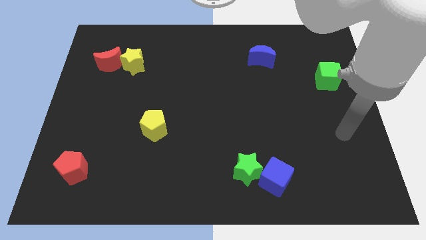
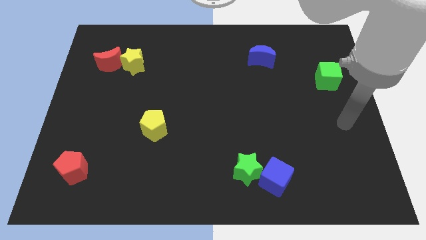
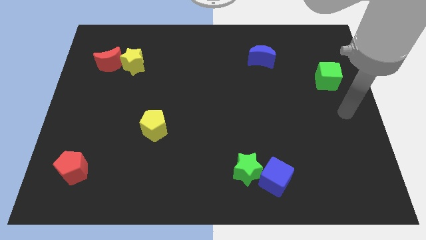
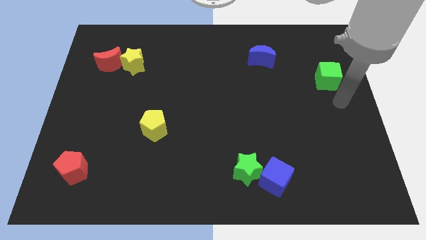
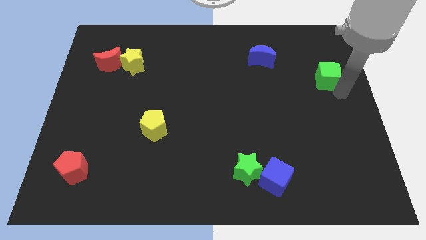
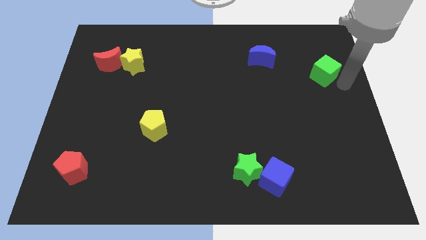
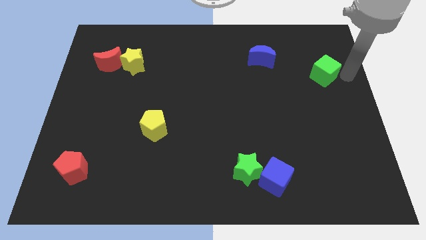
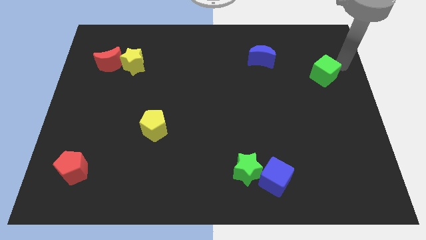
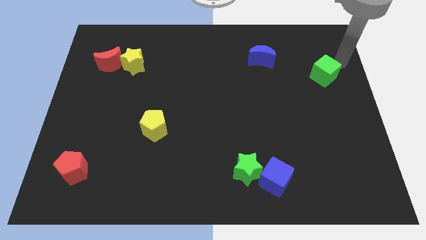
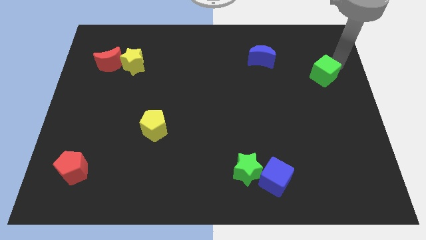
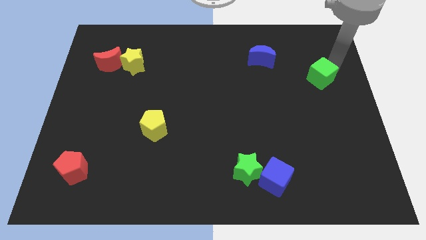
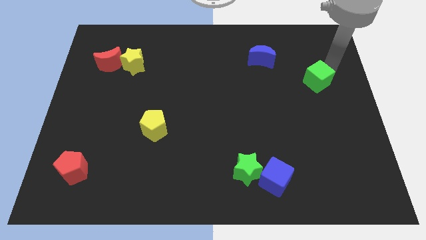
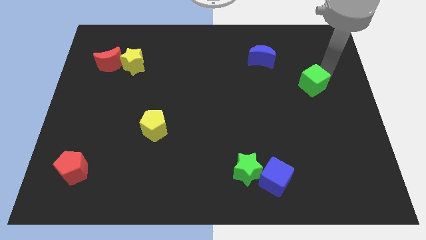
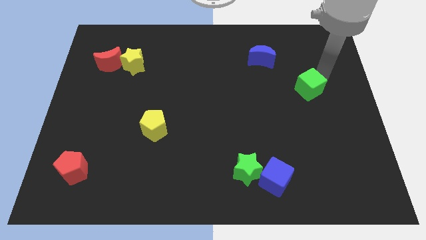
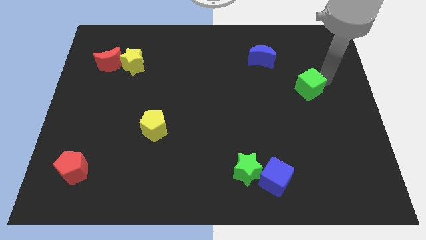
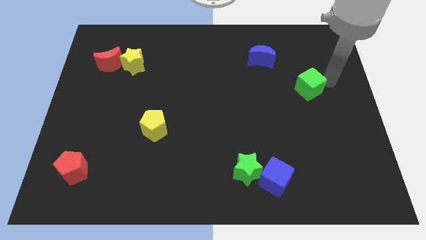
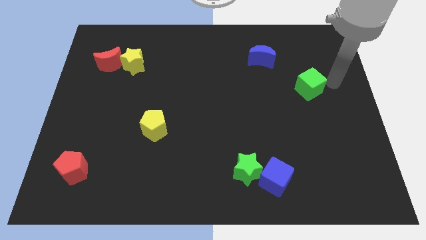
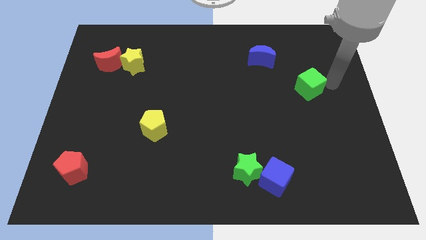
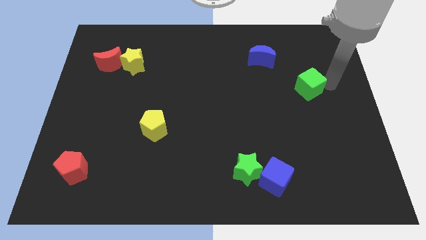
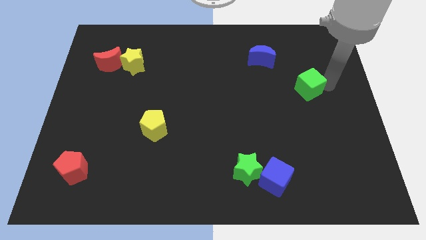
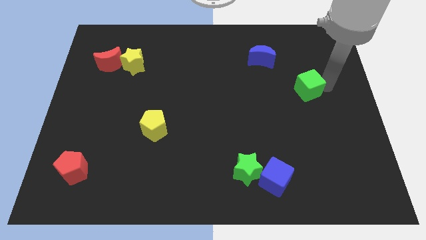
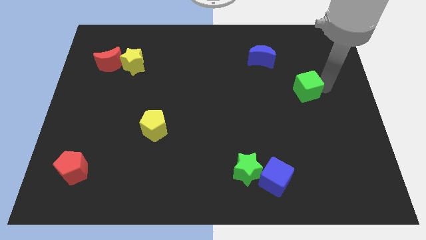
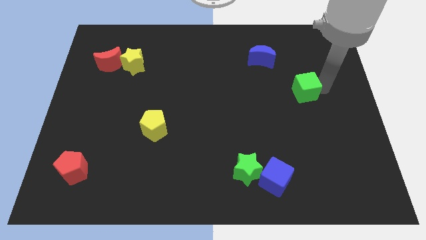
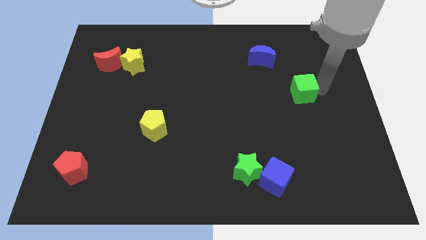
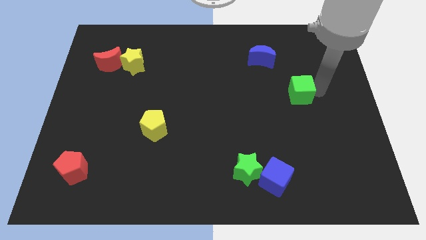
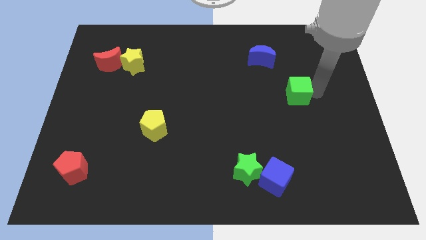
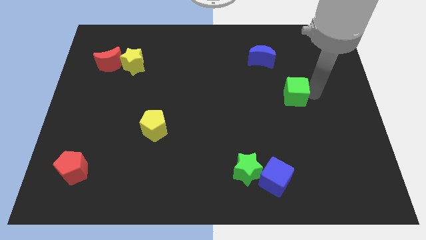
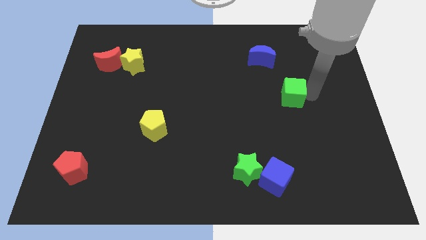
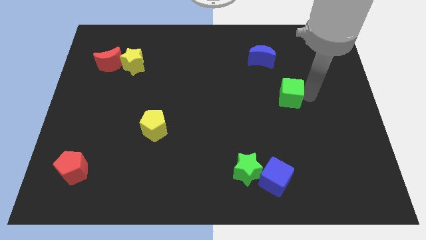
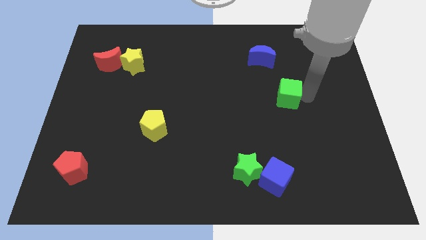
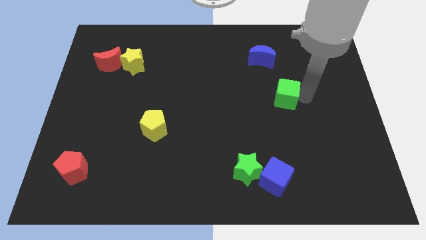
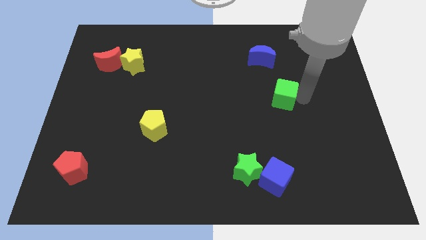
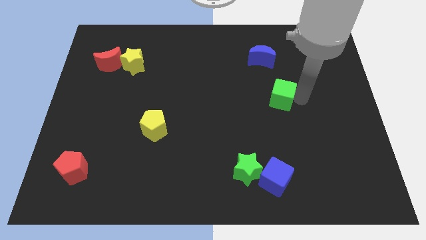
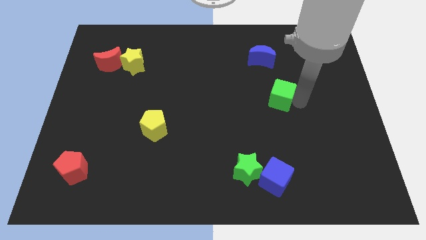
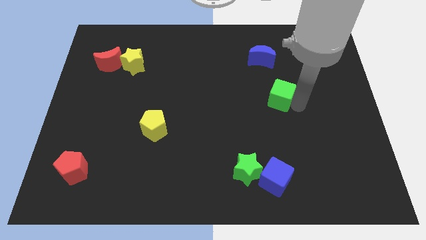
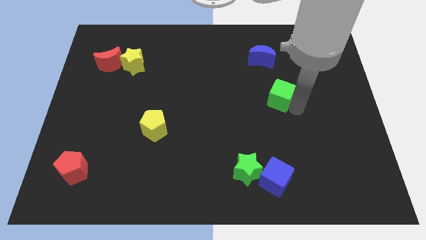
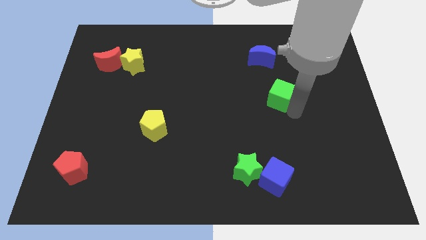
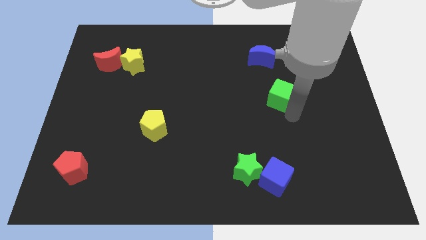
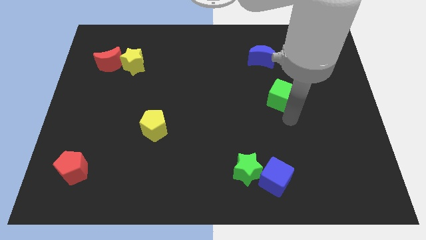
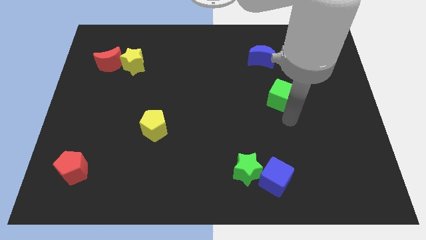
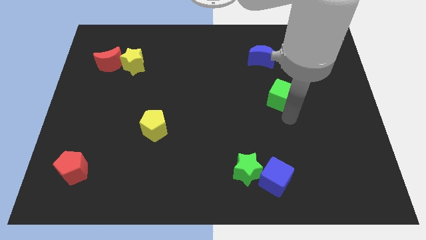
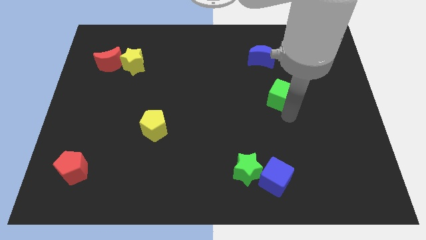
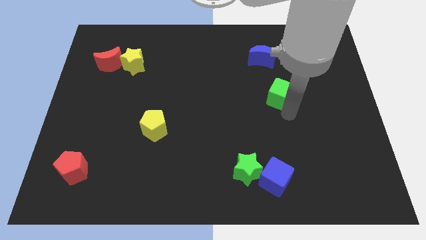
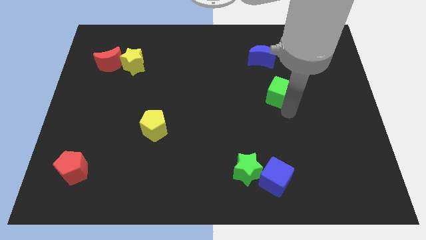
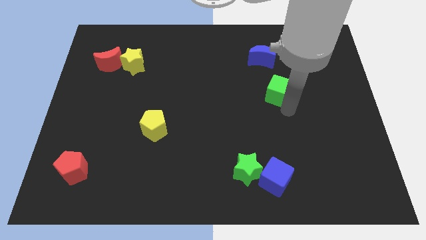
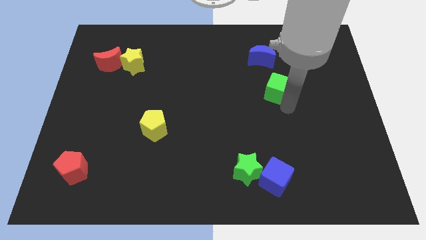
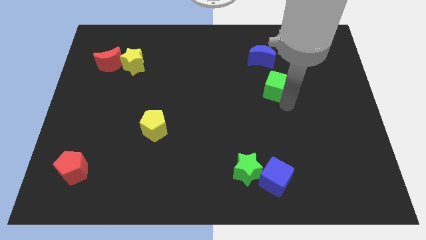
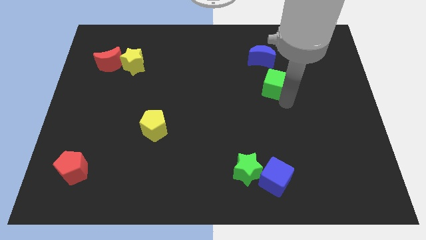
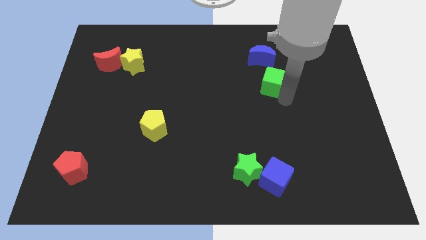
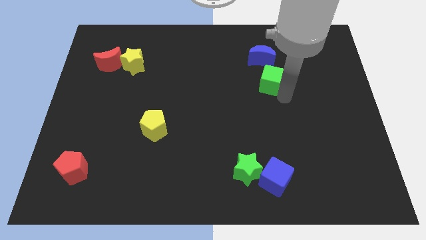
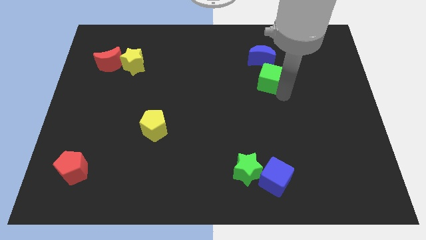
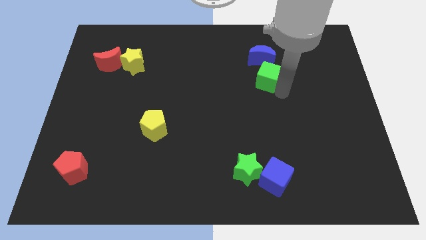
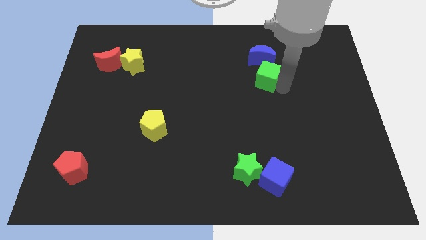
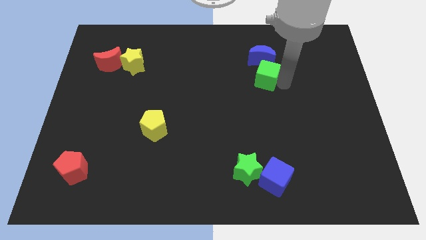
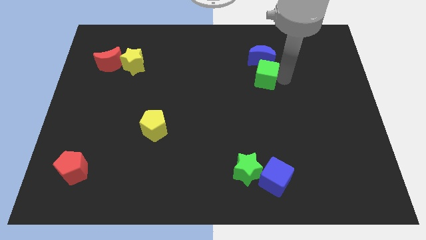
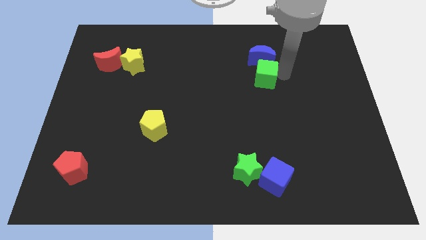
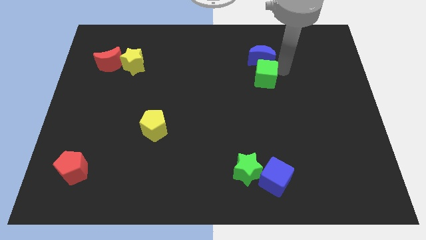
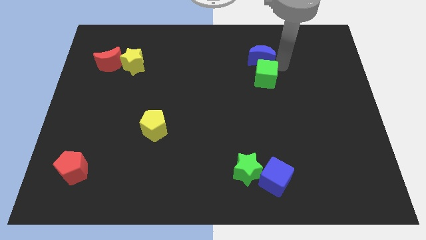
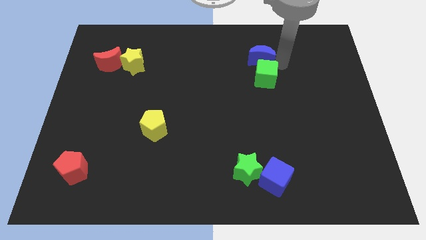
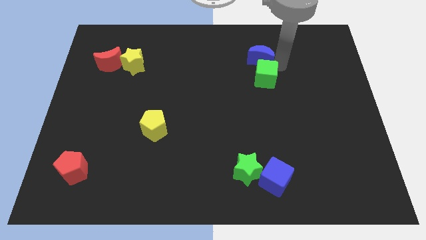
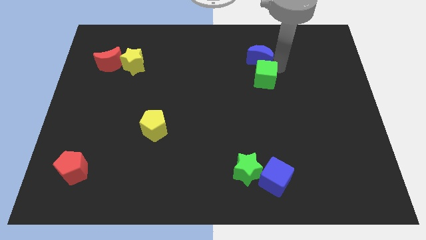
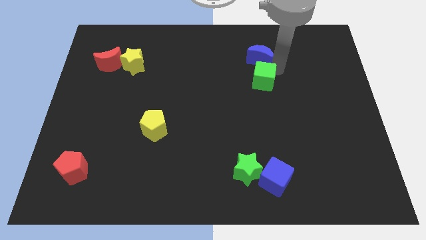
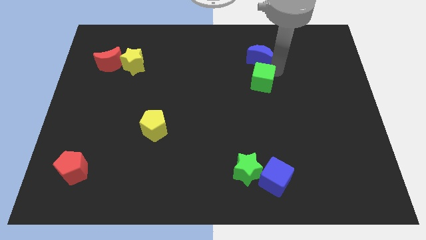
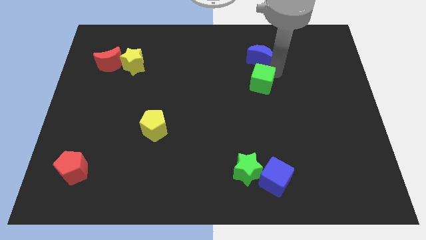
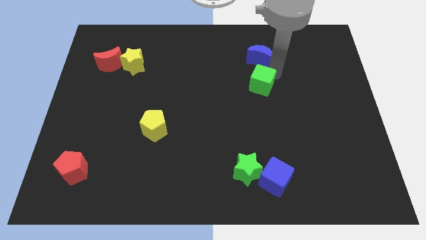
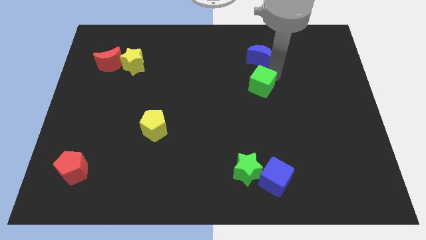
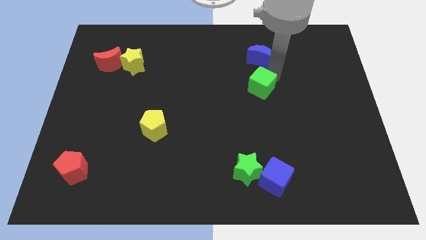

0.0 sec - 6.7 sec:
put the green cube to the center
